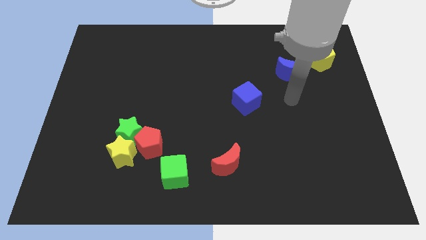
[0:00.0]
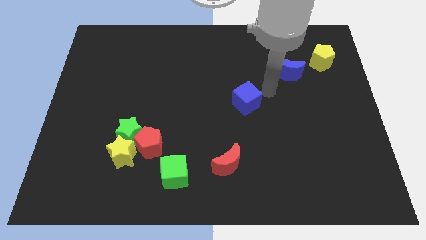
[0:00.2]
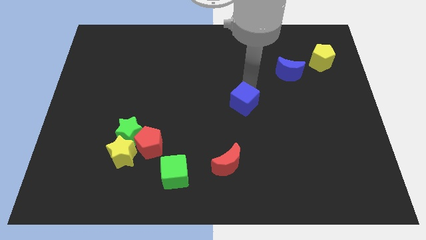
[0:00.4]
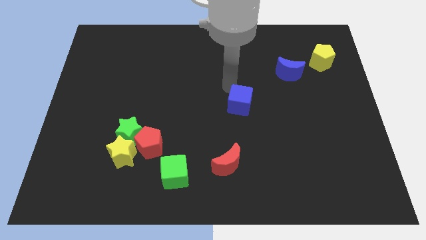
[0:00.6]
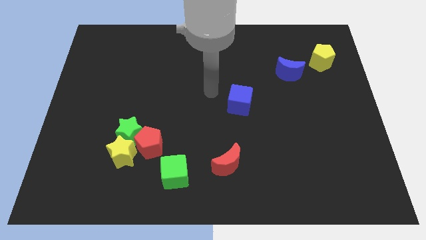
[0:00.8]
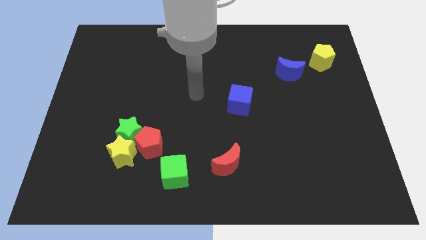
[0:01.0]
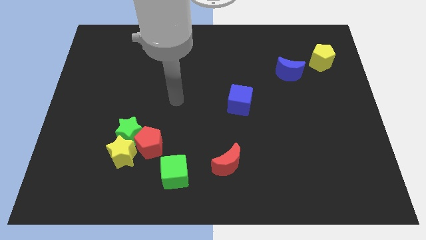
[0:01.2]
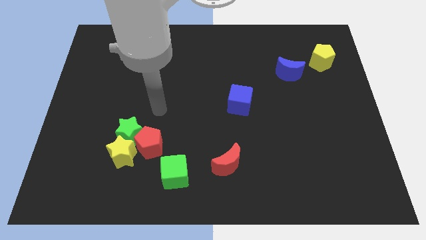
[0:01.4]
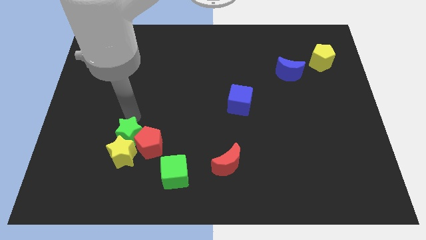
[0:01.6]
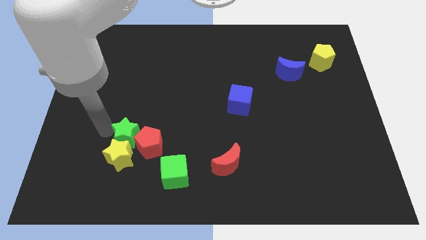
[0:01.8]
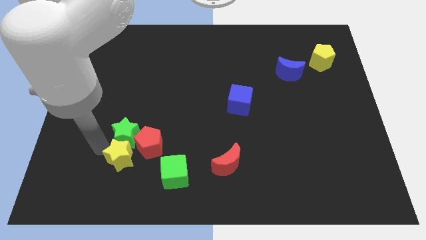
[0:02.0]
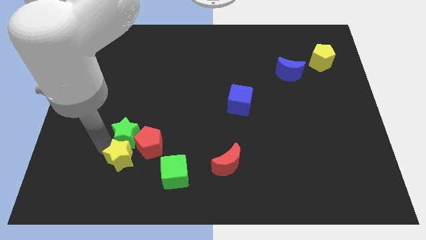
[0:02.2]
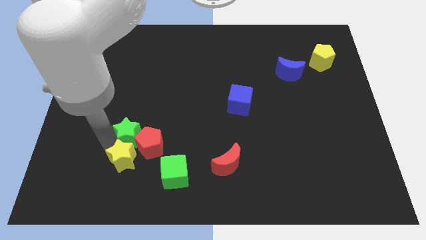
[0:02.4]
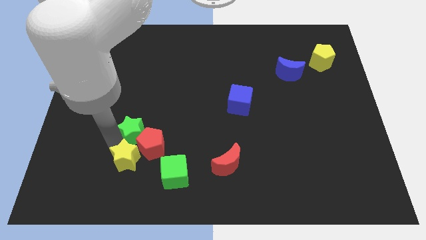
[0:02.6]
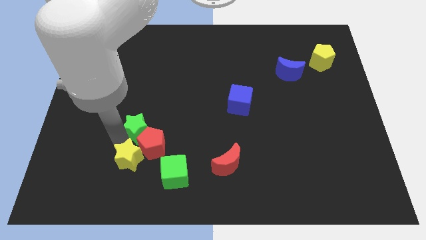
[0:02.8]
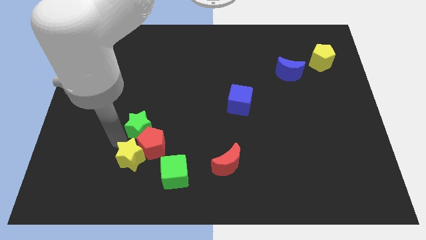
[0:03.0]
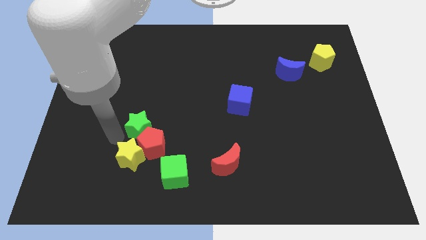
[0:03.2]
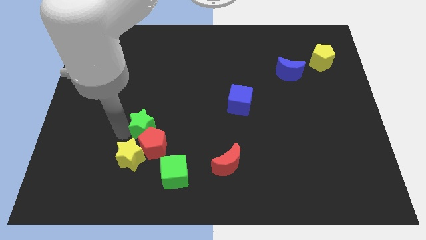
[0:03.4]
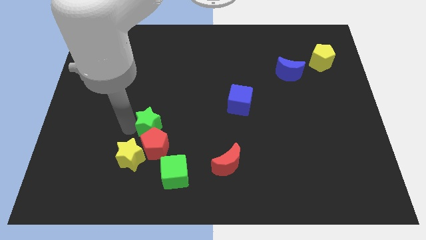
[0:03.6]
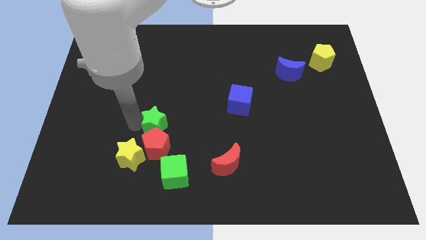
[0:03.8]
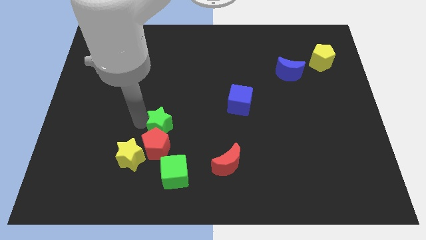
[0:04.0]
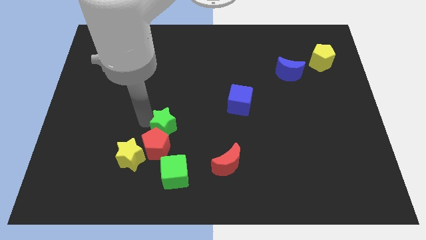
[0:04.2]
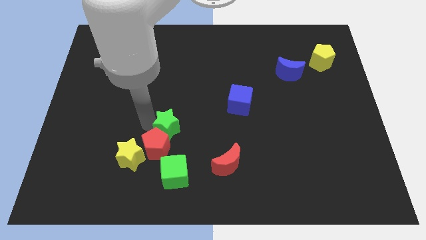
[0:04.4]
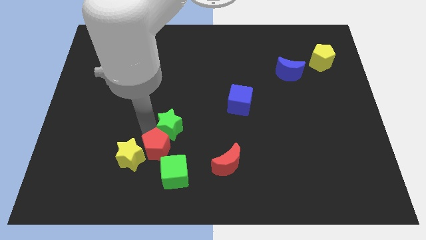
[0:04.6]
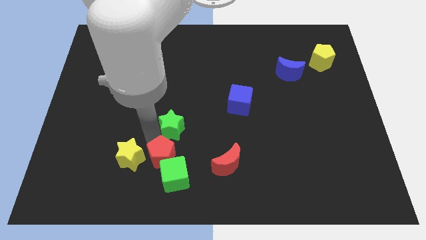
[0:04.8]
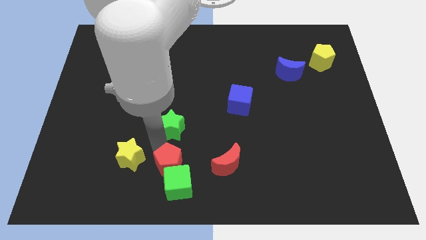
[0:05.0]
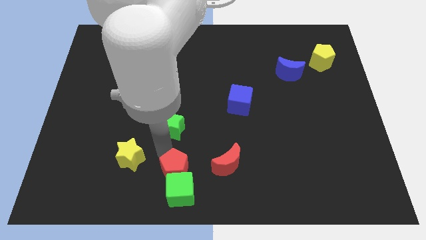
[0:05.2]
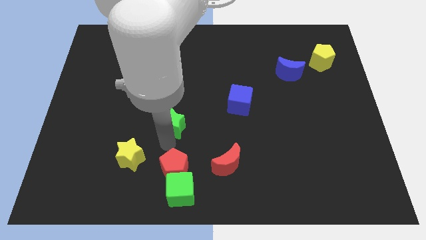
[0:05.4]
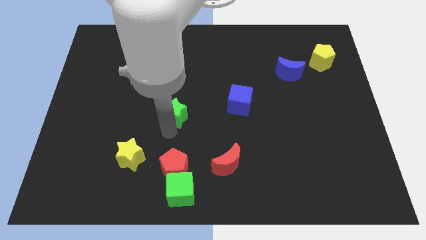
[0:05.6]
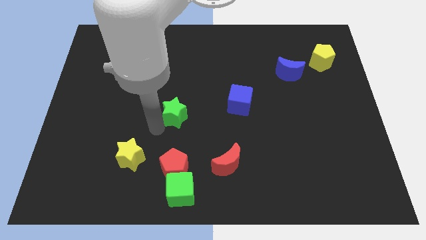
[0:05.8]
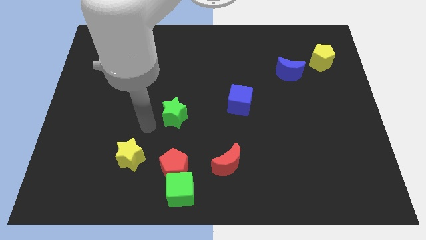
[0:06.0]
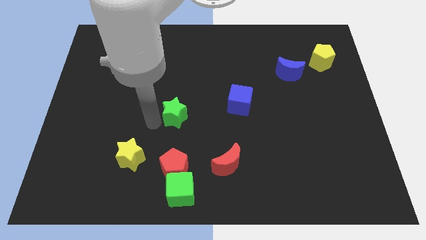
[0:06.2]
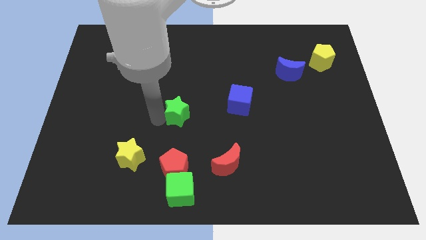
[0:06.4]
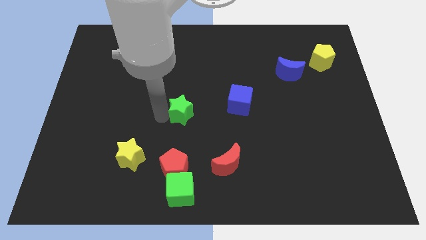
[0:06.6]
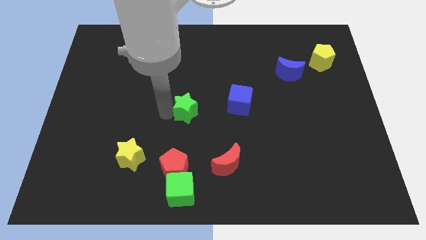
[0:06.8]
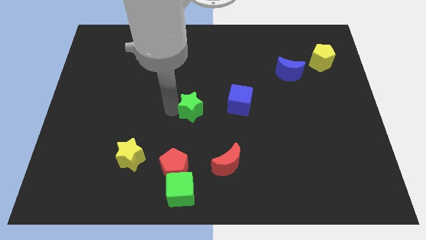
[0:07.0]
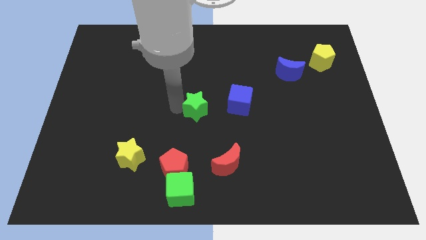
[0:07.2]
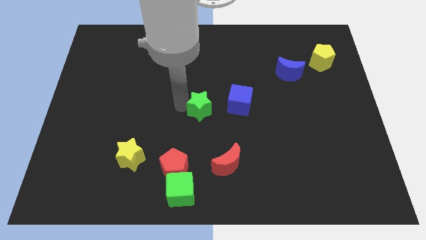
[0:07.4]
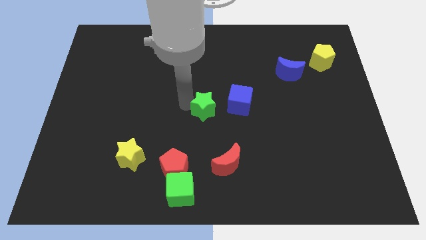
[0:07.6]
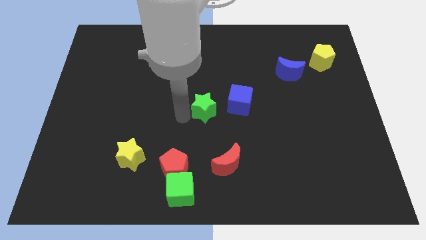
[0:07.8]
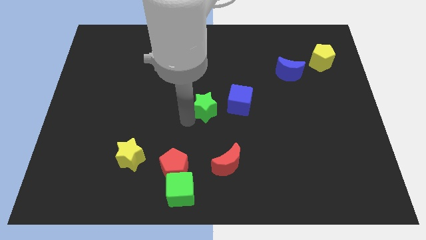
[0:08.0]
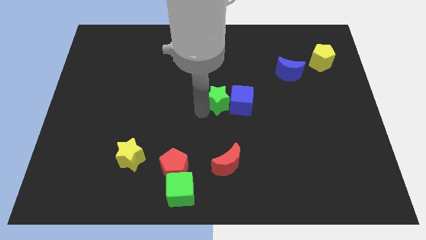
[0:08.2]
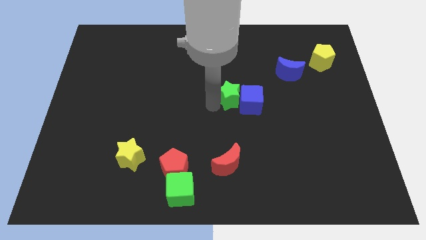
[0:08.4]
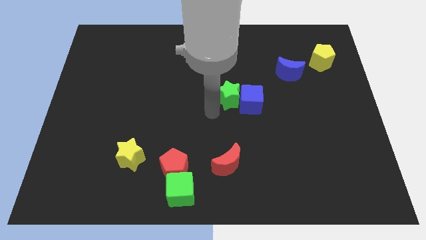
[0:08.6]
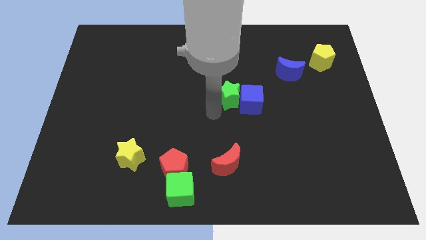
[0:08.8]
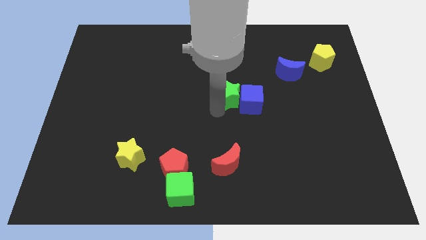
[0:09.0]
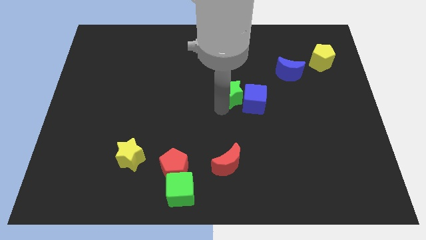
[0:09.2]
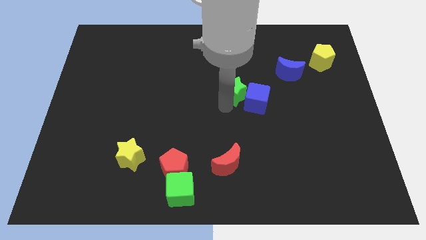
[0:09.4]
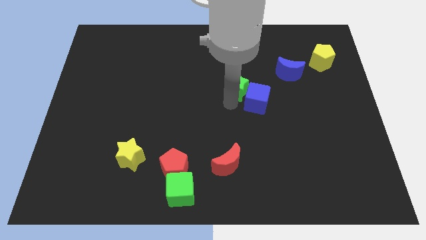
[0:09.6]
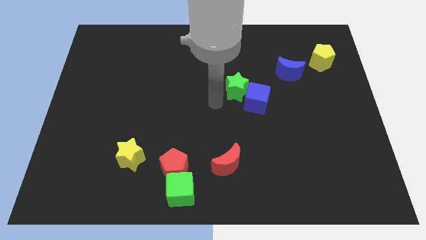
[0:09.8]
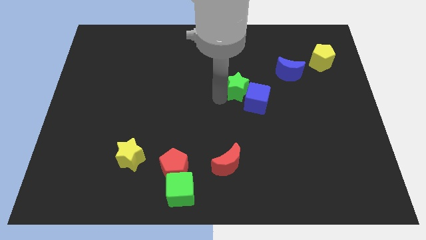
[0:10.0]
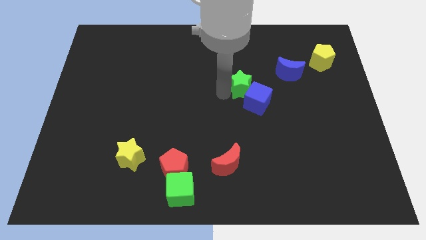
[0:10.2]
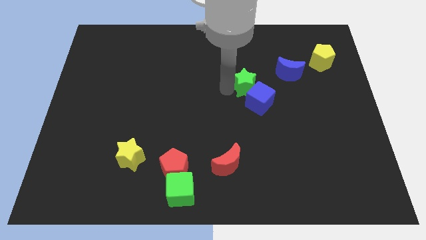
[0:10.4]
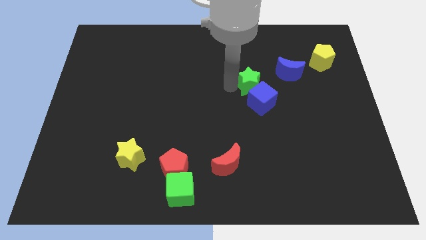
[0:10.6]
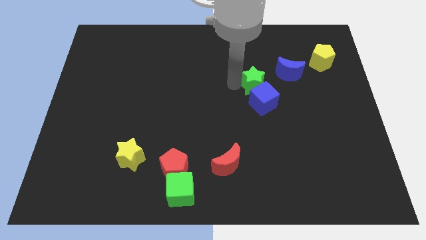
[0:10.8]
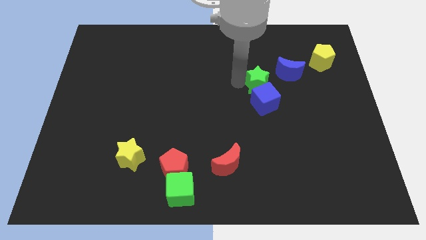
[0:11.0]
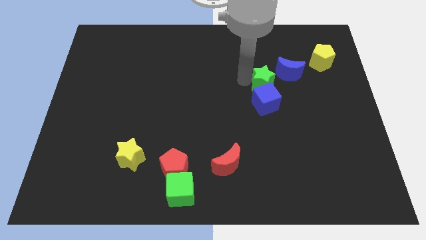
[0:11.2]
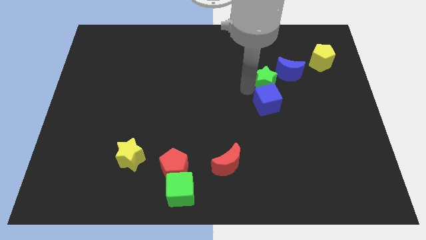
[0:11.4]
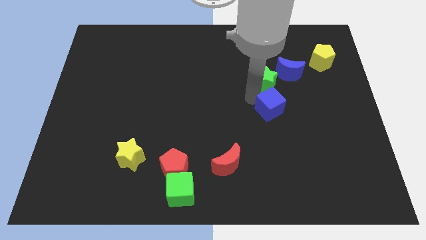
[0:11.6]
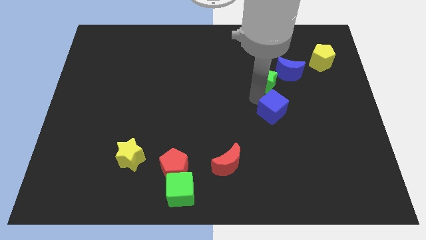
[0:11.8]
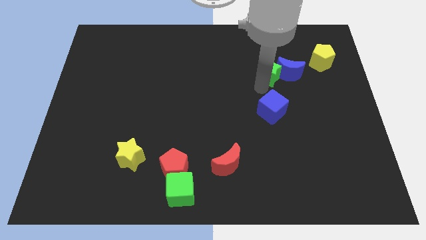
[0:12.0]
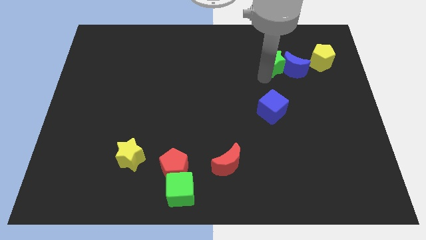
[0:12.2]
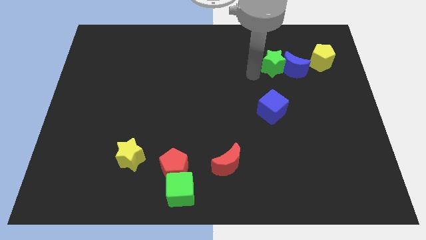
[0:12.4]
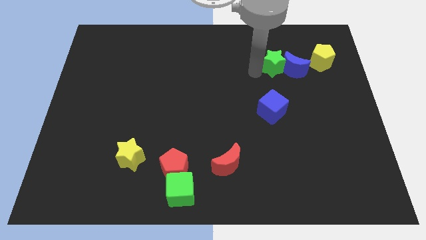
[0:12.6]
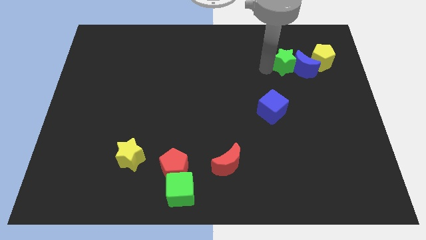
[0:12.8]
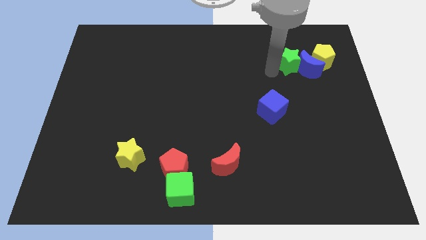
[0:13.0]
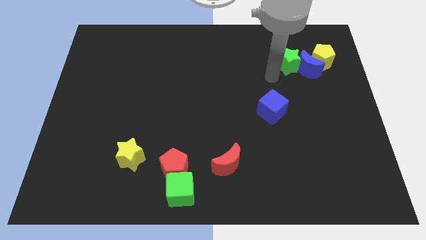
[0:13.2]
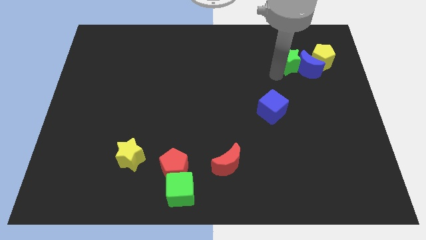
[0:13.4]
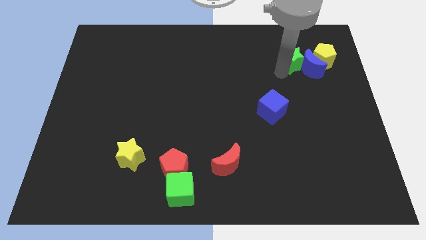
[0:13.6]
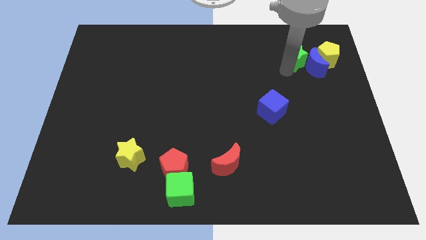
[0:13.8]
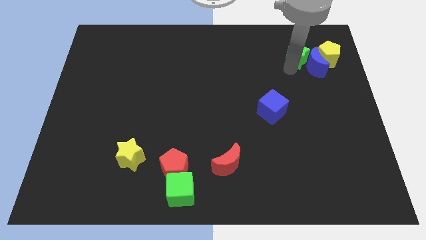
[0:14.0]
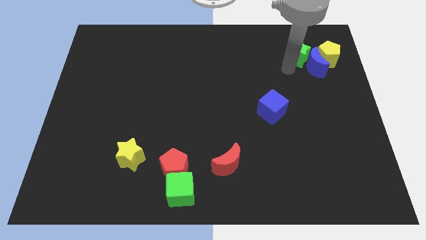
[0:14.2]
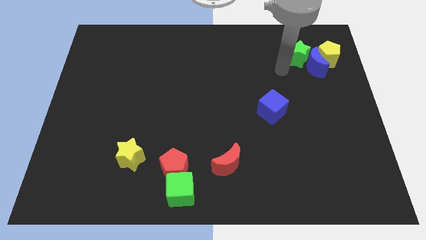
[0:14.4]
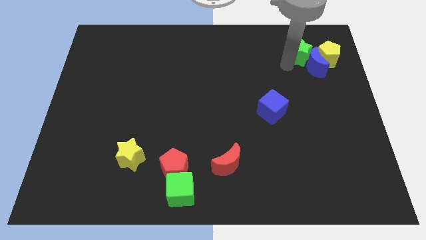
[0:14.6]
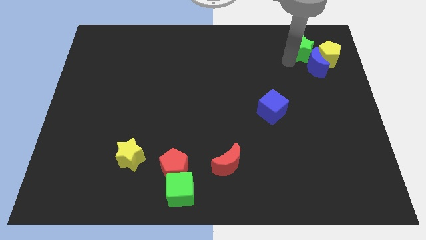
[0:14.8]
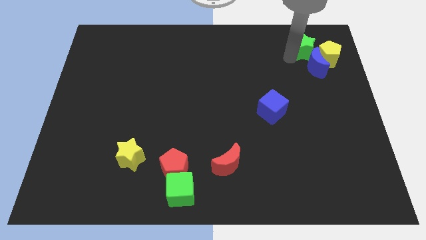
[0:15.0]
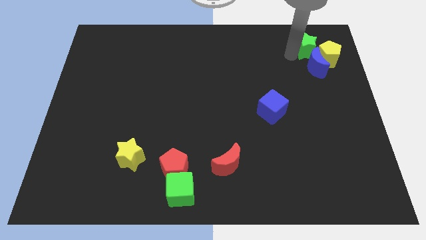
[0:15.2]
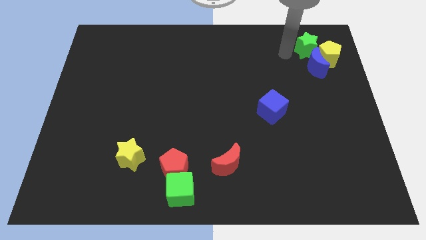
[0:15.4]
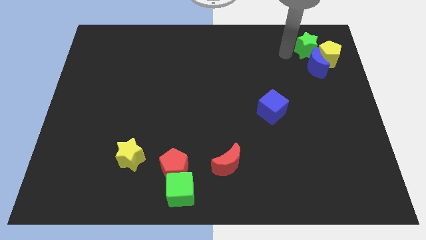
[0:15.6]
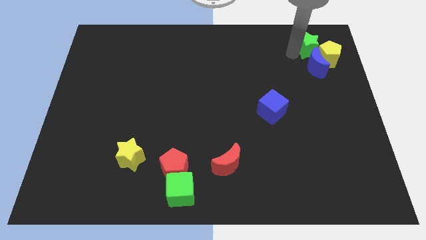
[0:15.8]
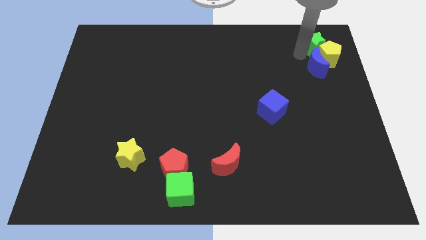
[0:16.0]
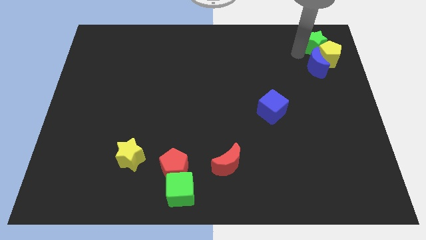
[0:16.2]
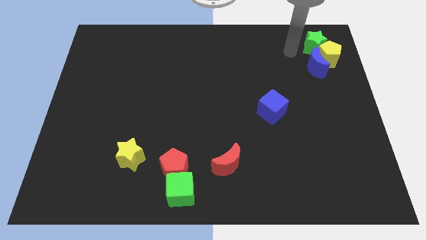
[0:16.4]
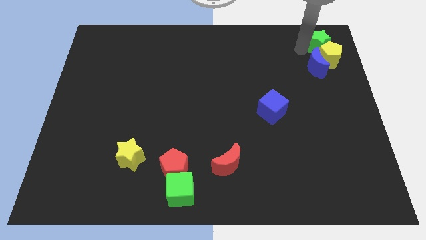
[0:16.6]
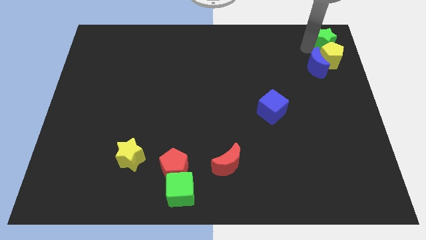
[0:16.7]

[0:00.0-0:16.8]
move the green star to the top right corner
